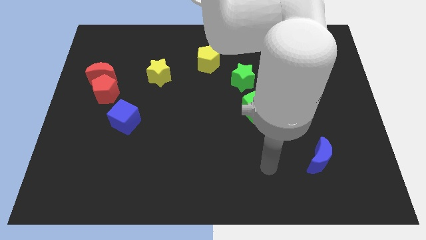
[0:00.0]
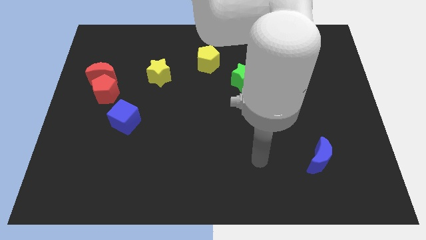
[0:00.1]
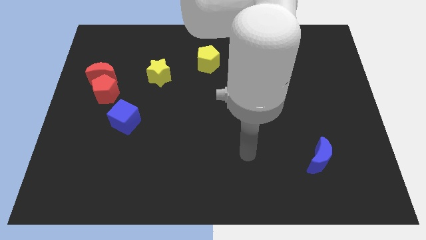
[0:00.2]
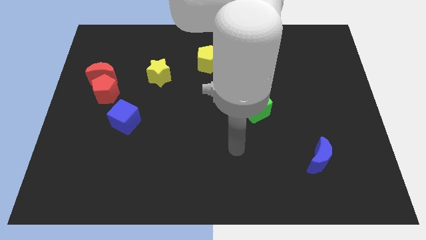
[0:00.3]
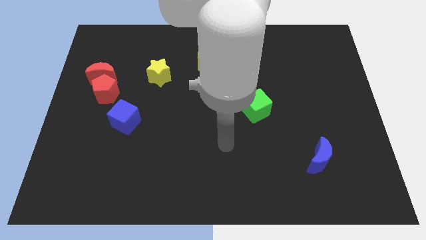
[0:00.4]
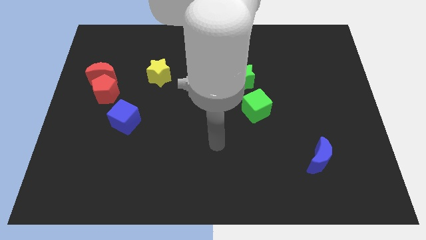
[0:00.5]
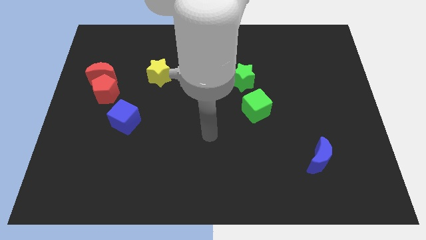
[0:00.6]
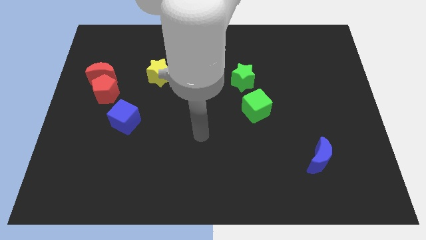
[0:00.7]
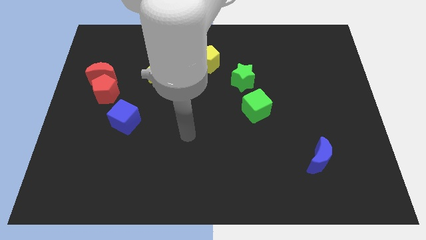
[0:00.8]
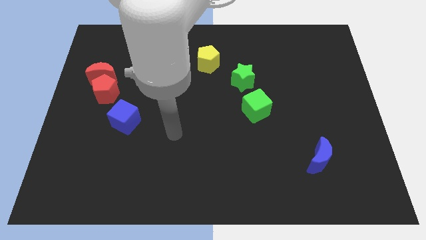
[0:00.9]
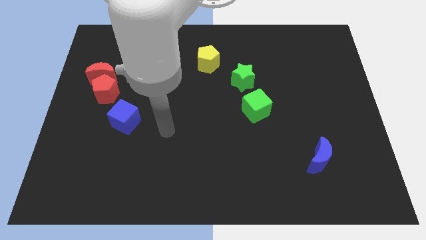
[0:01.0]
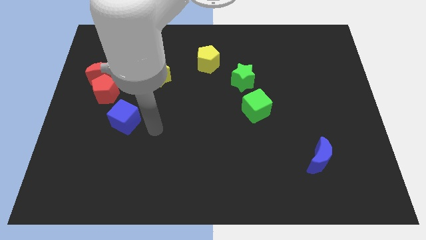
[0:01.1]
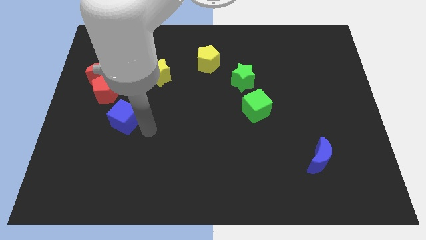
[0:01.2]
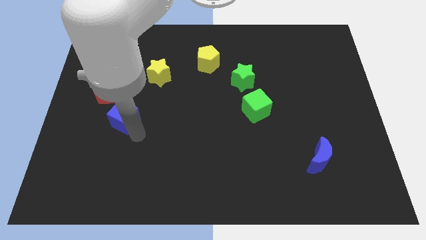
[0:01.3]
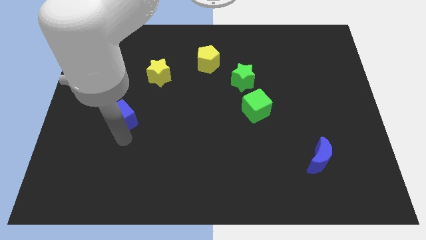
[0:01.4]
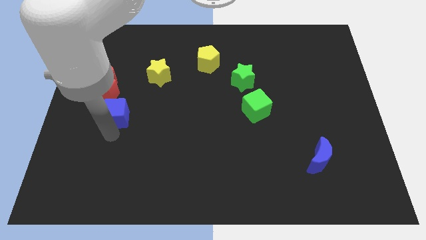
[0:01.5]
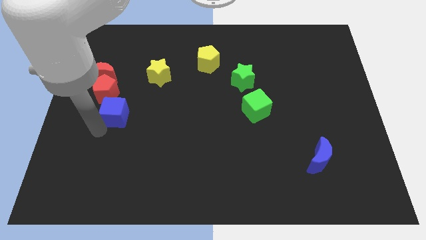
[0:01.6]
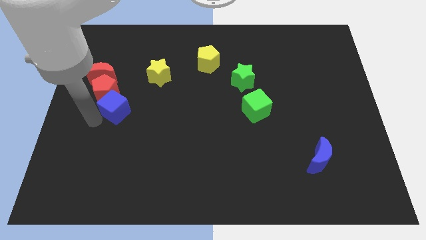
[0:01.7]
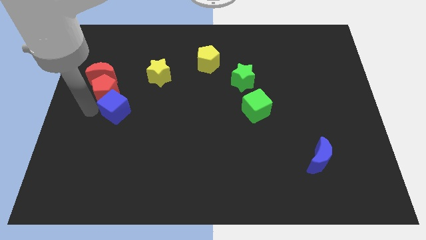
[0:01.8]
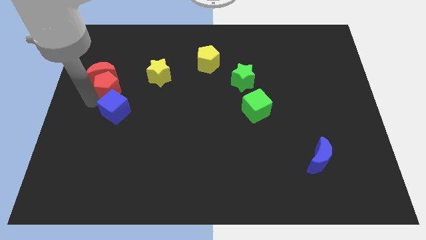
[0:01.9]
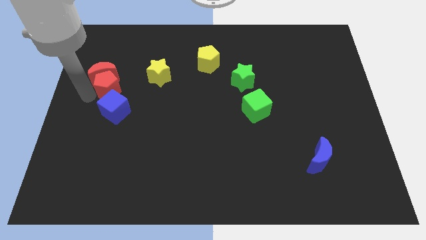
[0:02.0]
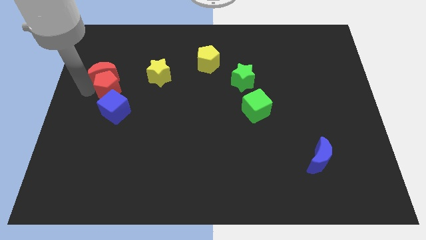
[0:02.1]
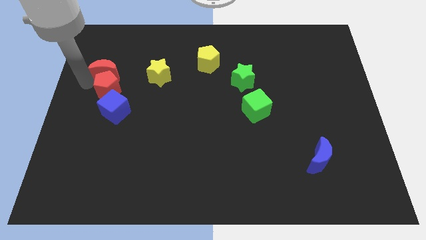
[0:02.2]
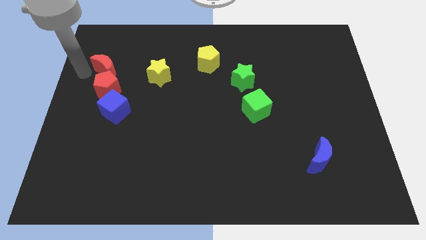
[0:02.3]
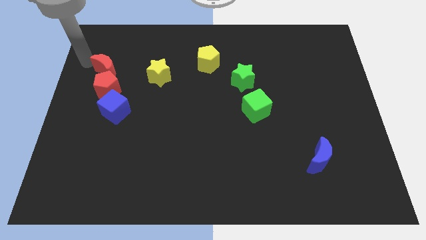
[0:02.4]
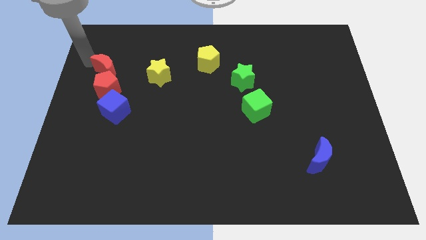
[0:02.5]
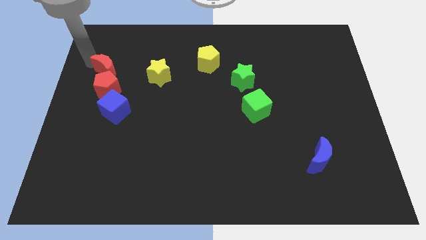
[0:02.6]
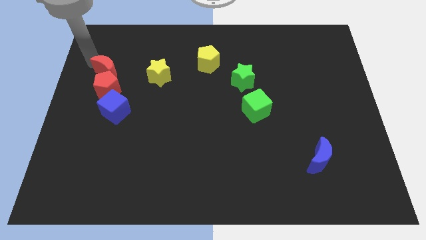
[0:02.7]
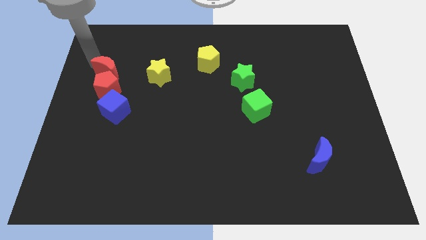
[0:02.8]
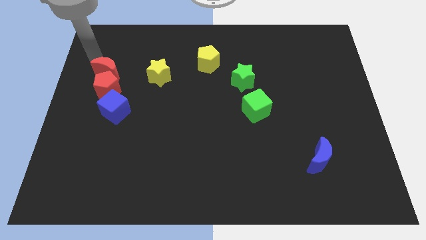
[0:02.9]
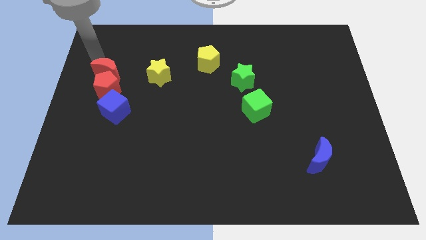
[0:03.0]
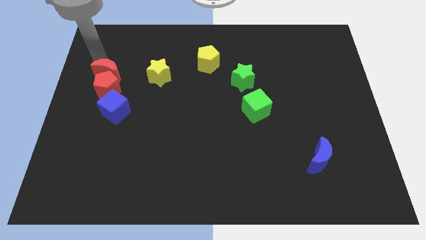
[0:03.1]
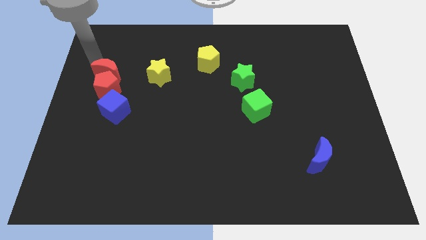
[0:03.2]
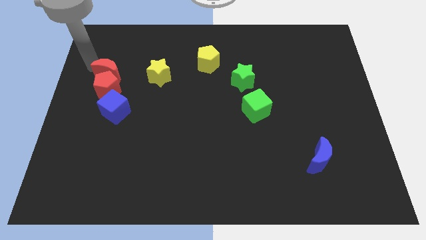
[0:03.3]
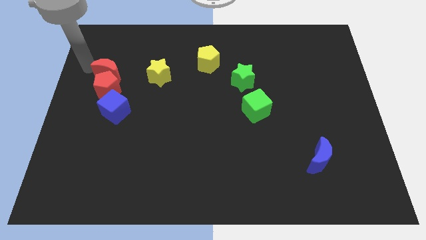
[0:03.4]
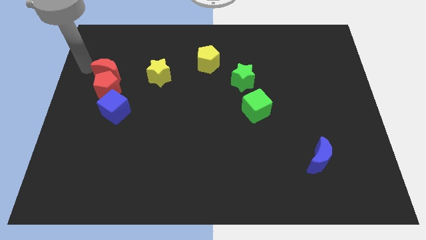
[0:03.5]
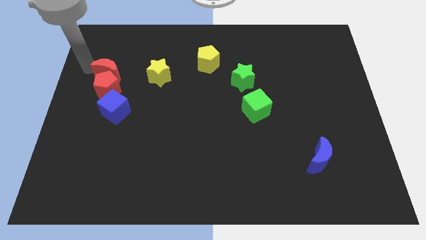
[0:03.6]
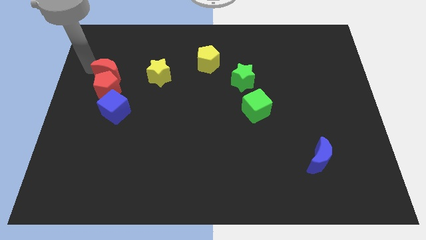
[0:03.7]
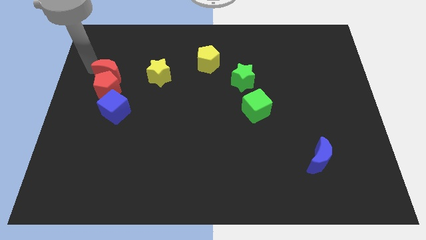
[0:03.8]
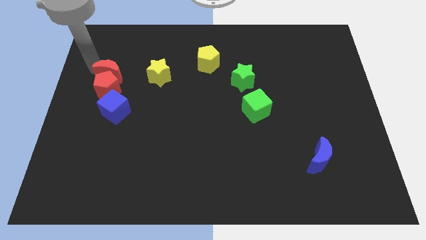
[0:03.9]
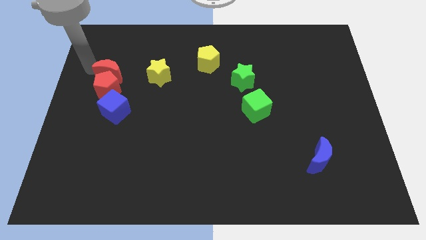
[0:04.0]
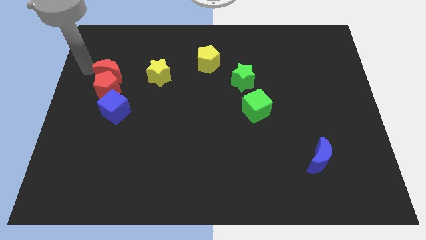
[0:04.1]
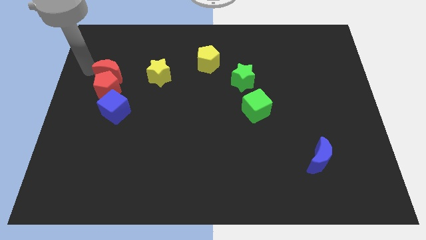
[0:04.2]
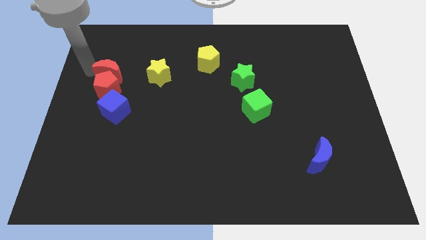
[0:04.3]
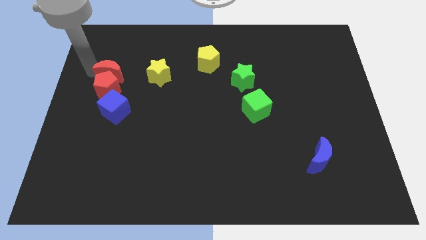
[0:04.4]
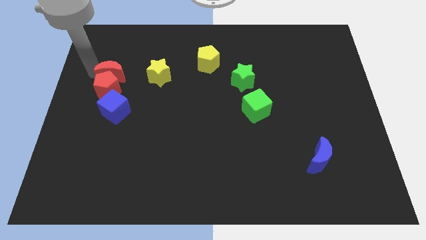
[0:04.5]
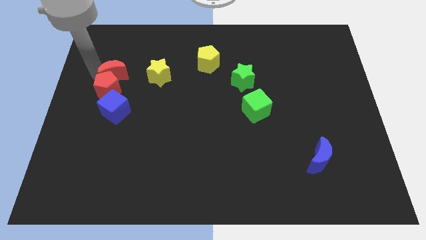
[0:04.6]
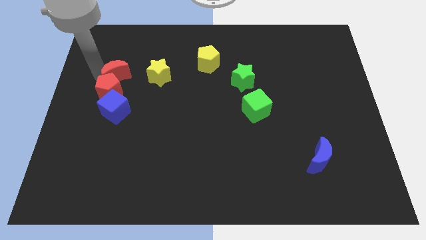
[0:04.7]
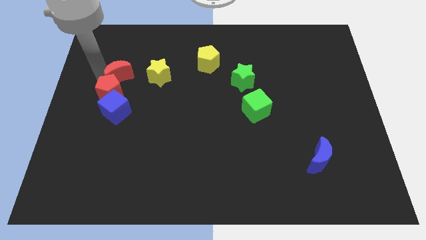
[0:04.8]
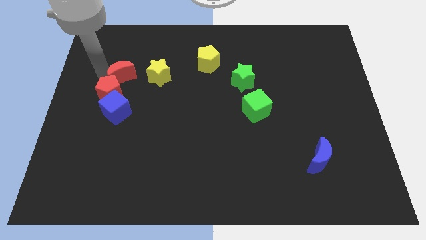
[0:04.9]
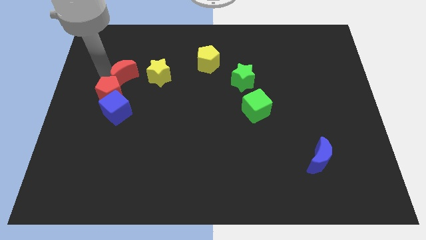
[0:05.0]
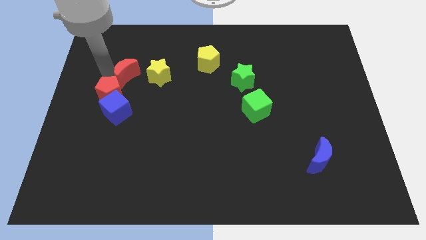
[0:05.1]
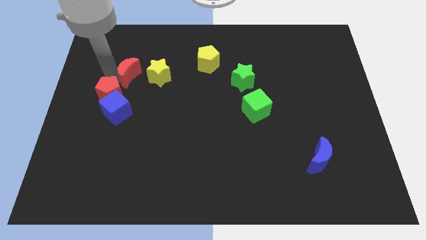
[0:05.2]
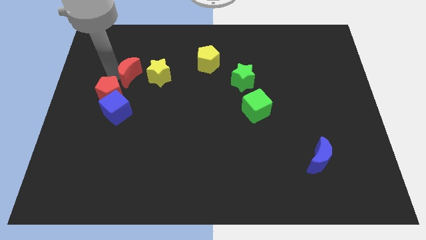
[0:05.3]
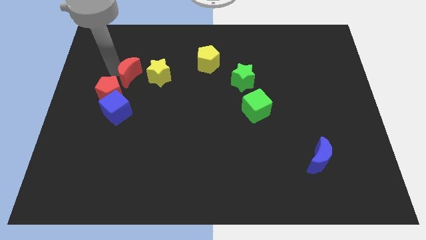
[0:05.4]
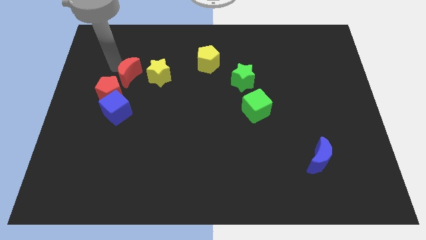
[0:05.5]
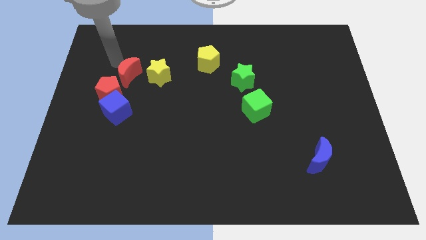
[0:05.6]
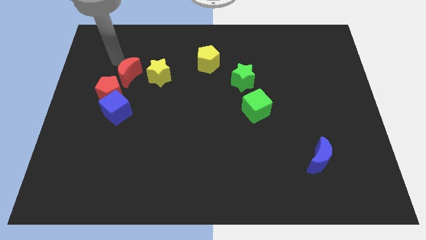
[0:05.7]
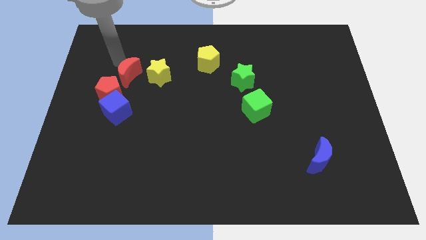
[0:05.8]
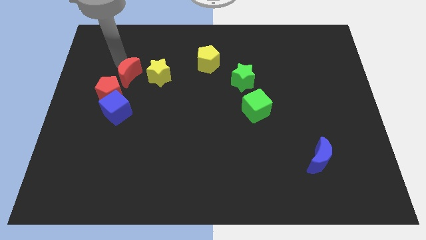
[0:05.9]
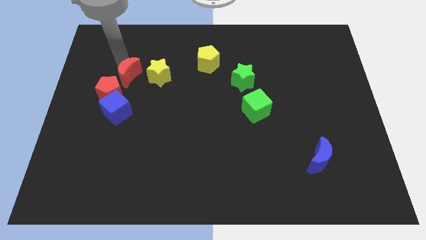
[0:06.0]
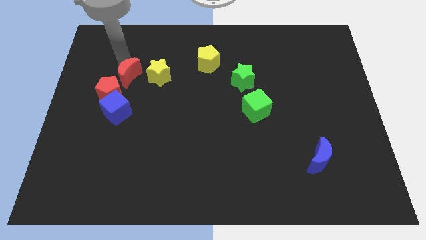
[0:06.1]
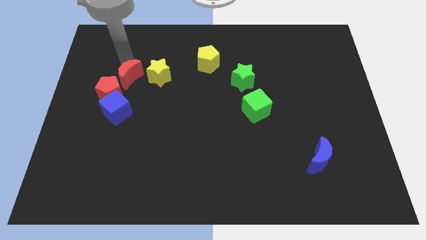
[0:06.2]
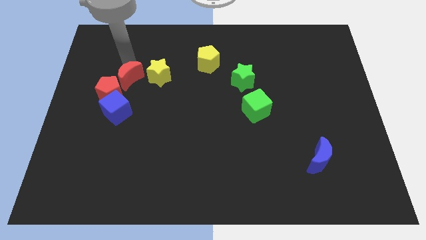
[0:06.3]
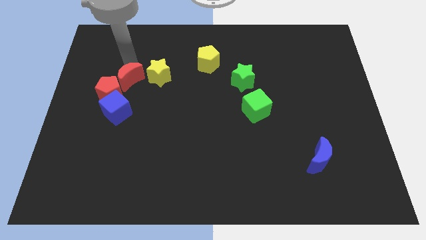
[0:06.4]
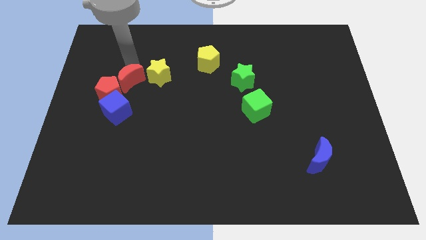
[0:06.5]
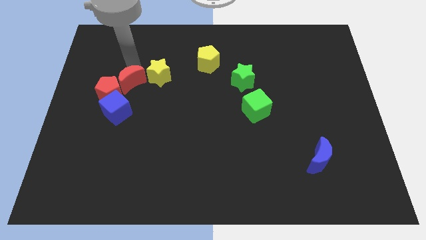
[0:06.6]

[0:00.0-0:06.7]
slide the red moon diagonally up and to the right of the blue cube

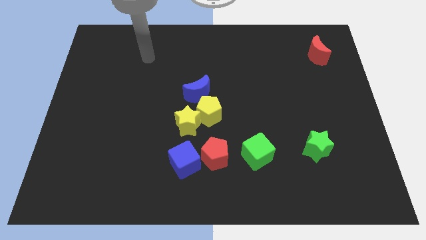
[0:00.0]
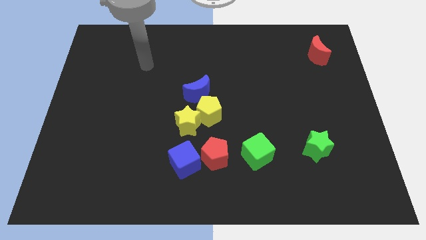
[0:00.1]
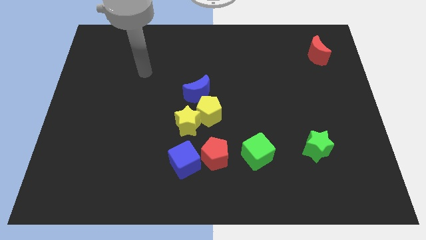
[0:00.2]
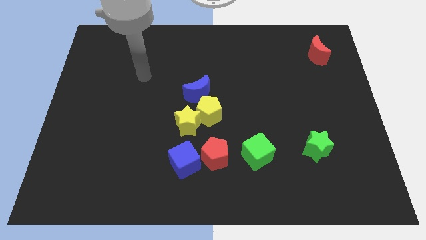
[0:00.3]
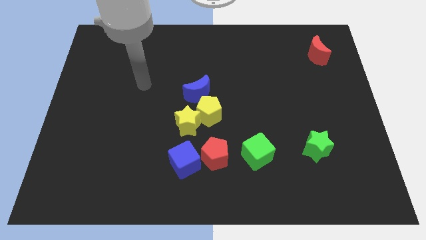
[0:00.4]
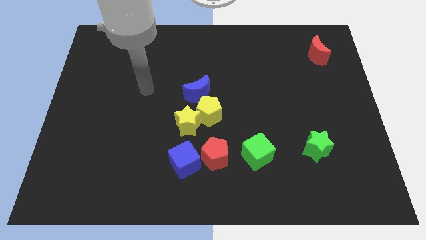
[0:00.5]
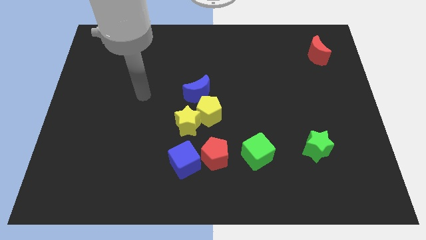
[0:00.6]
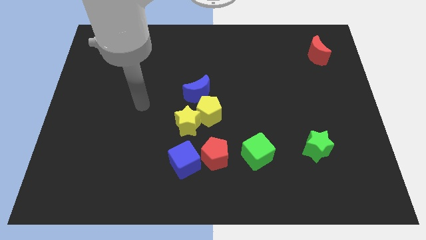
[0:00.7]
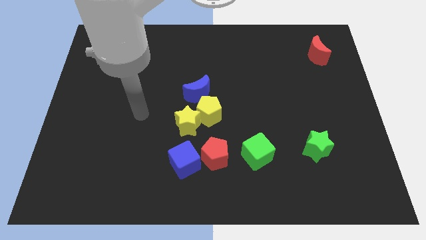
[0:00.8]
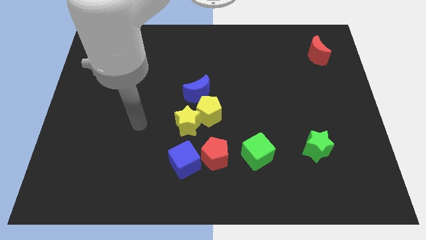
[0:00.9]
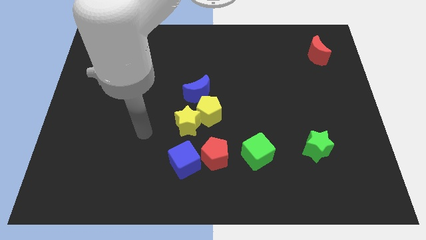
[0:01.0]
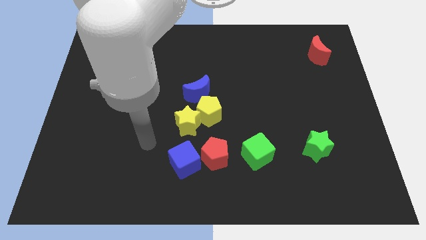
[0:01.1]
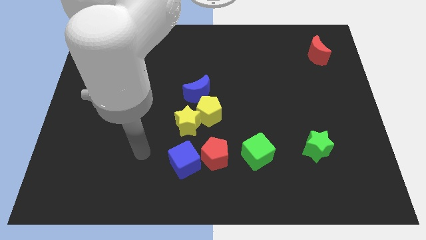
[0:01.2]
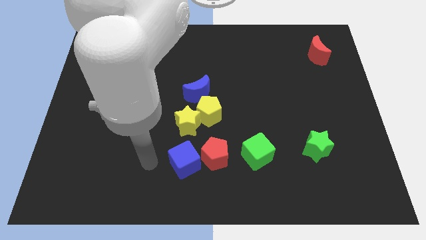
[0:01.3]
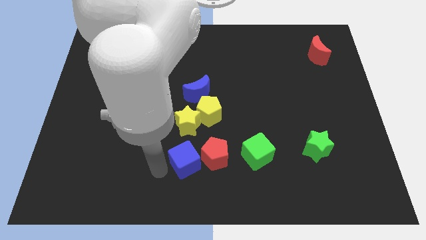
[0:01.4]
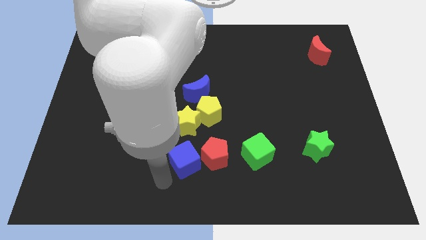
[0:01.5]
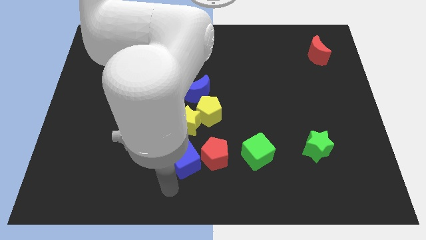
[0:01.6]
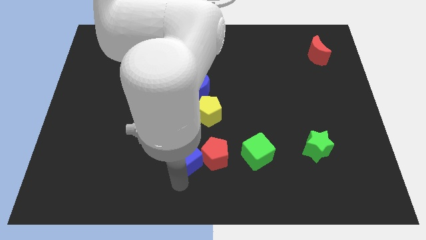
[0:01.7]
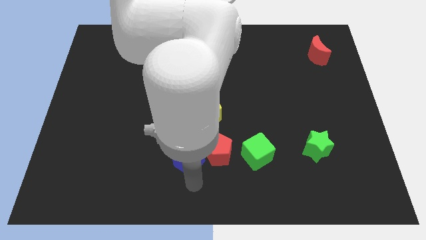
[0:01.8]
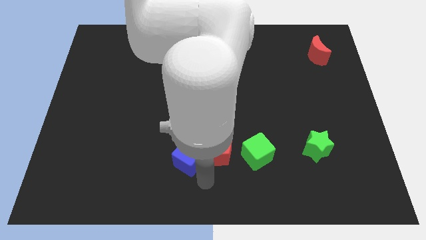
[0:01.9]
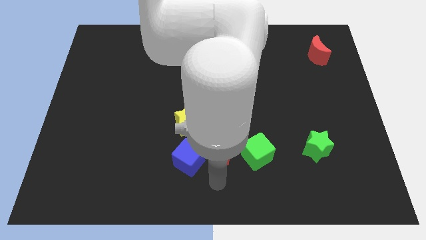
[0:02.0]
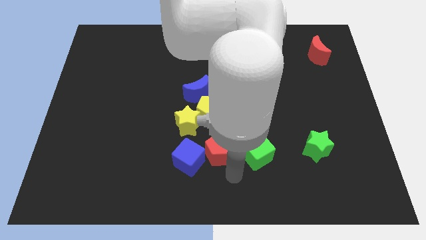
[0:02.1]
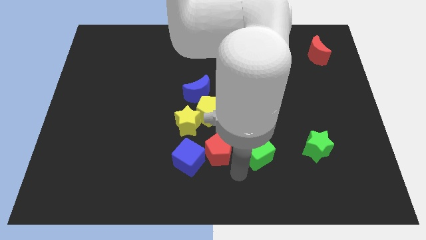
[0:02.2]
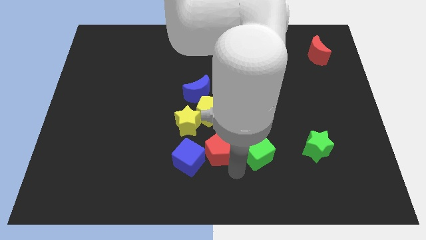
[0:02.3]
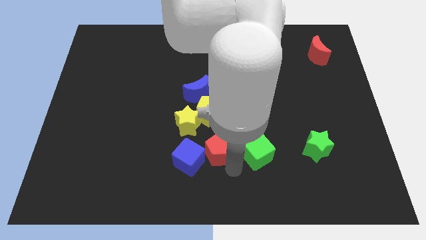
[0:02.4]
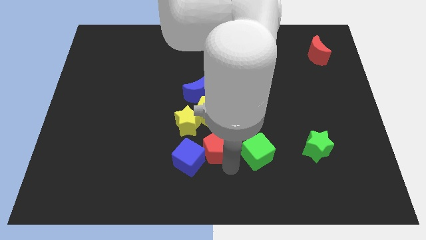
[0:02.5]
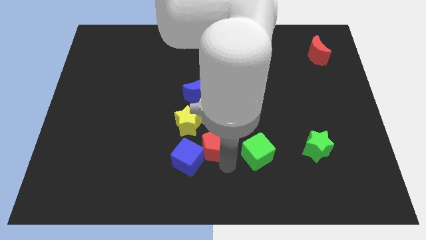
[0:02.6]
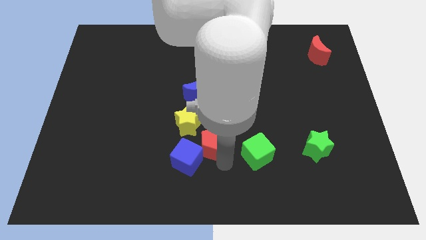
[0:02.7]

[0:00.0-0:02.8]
slide the red pentagon to the bottom side of the blue moon
